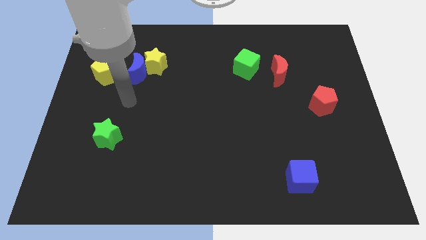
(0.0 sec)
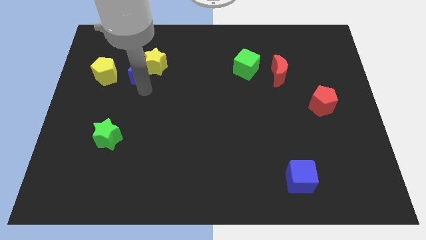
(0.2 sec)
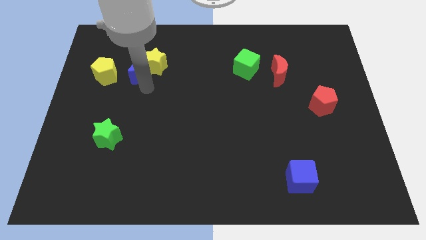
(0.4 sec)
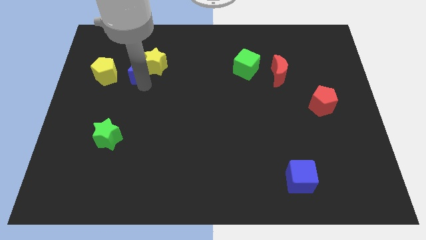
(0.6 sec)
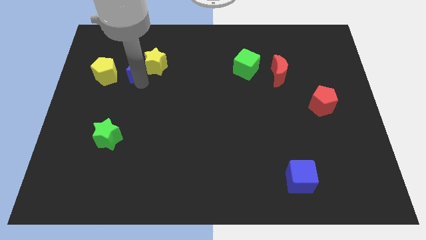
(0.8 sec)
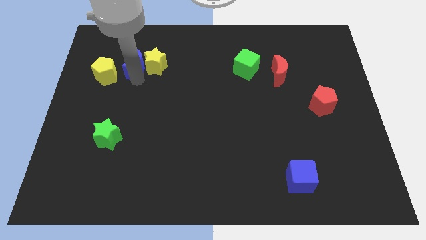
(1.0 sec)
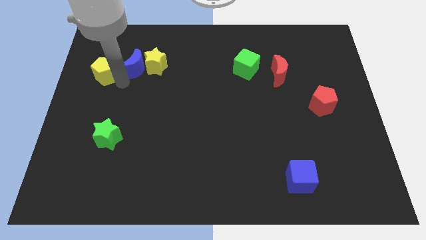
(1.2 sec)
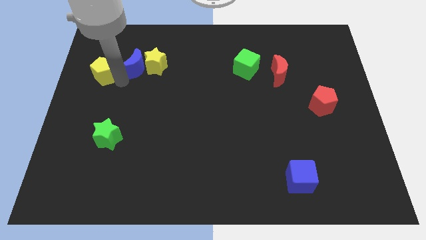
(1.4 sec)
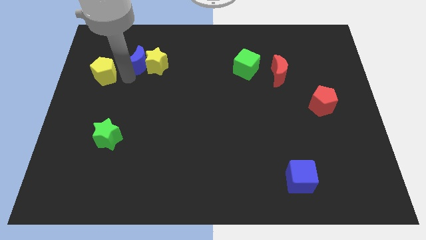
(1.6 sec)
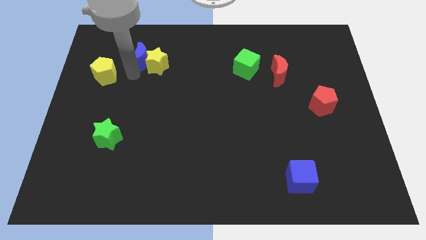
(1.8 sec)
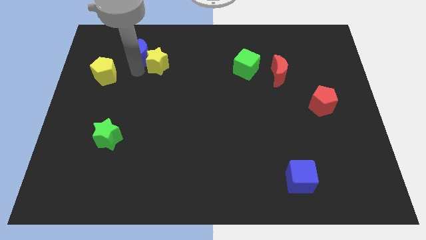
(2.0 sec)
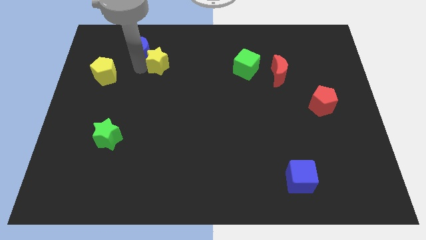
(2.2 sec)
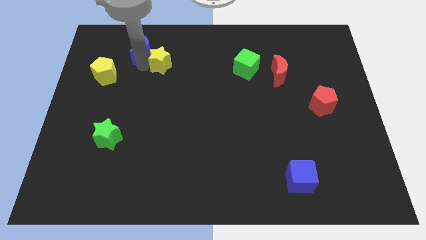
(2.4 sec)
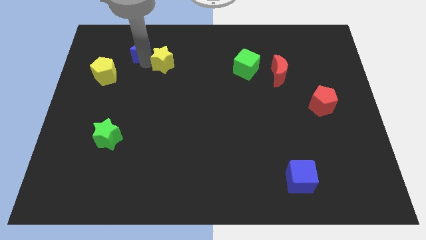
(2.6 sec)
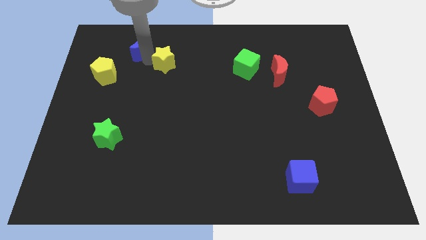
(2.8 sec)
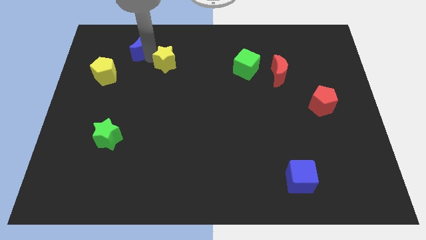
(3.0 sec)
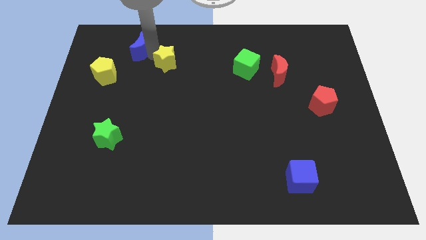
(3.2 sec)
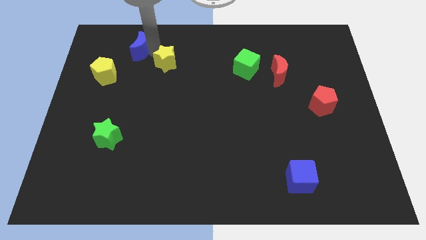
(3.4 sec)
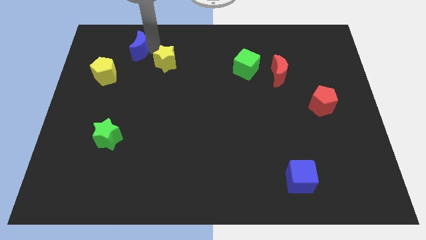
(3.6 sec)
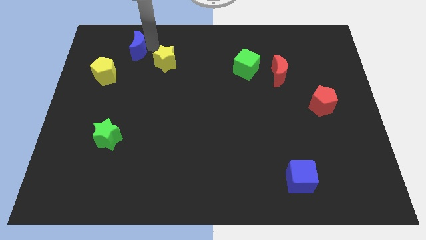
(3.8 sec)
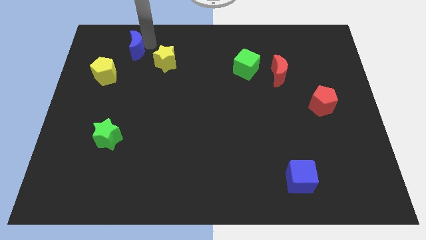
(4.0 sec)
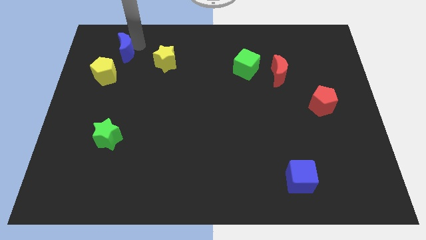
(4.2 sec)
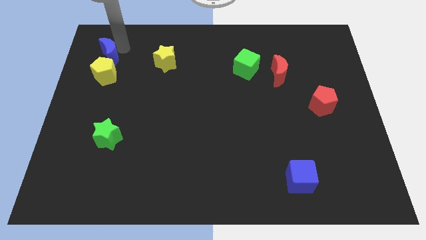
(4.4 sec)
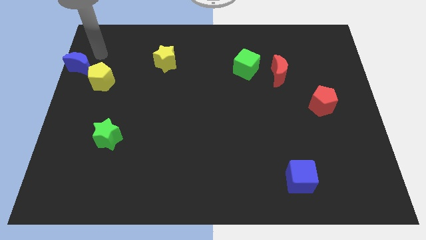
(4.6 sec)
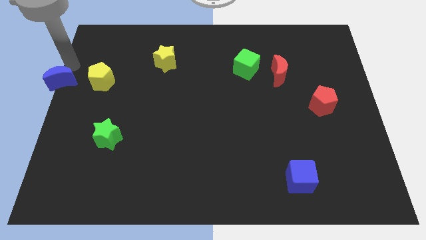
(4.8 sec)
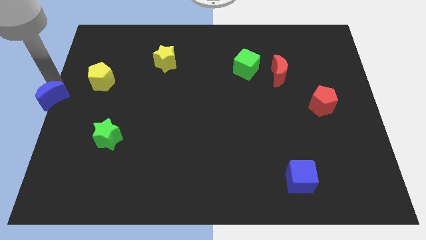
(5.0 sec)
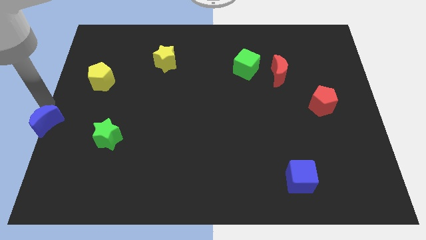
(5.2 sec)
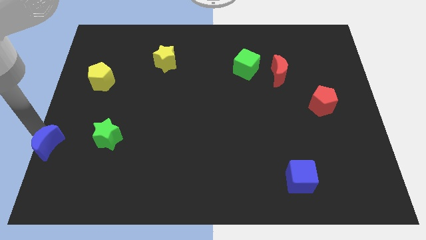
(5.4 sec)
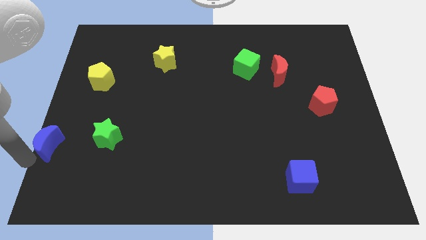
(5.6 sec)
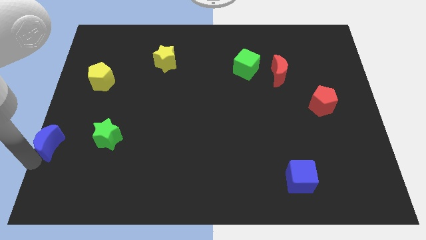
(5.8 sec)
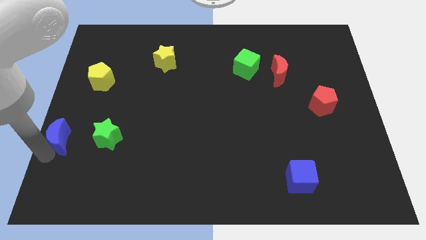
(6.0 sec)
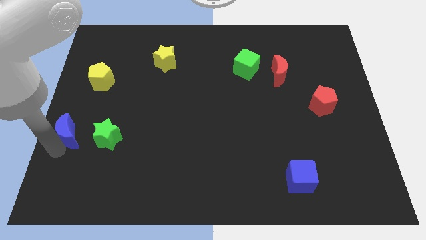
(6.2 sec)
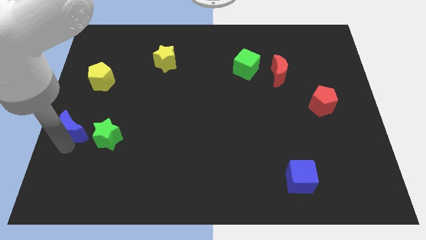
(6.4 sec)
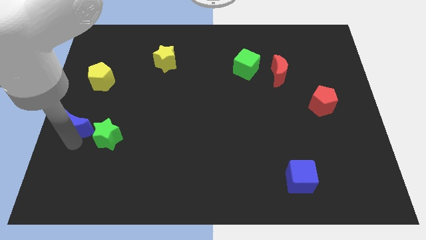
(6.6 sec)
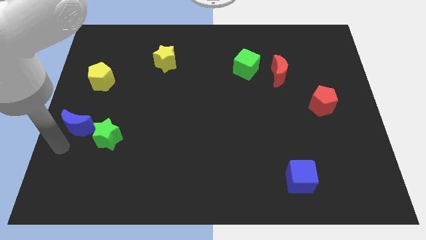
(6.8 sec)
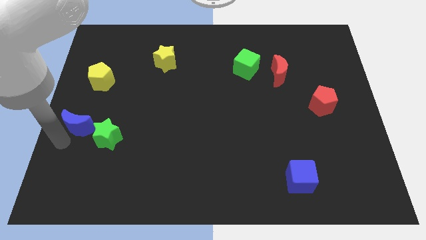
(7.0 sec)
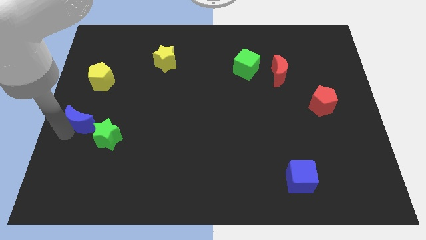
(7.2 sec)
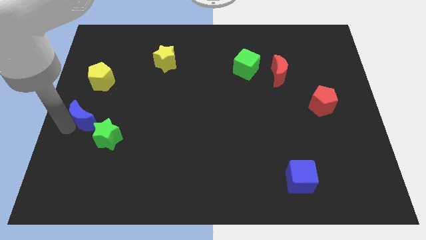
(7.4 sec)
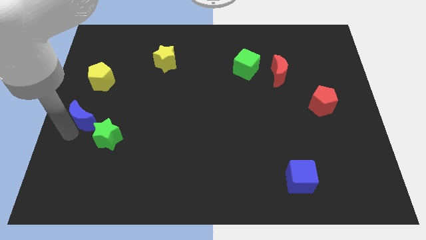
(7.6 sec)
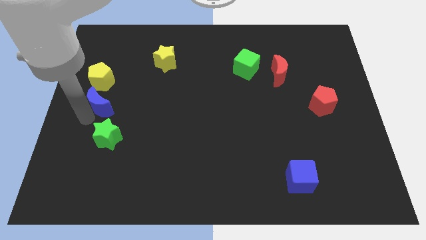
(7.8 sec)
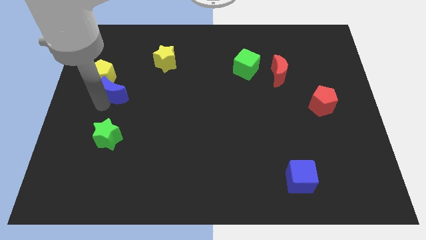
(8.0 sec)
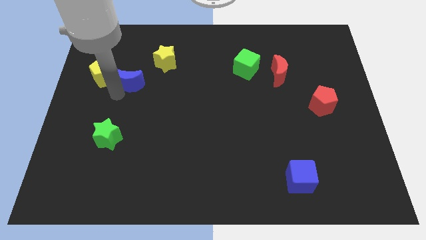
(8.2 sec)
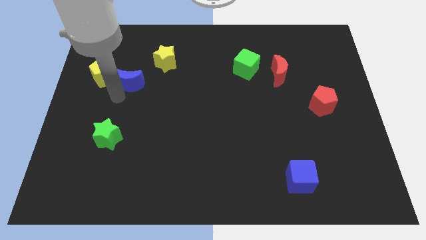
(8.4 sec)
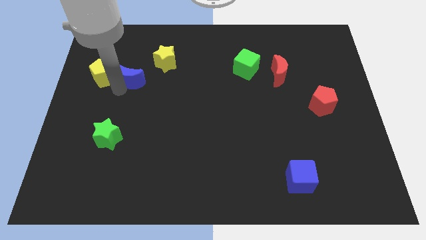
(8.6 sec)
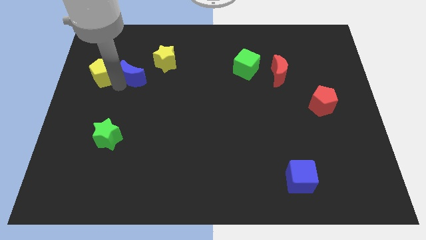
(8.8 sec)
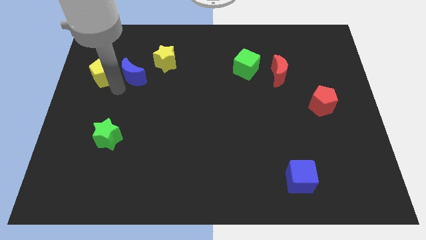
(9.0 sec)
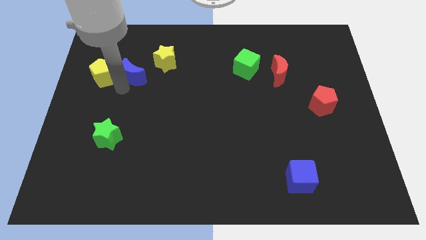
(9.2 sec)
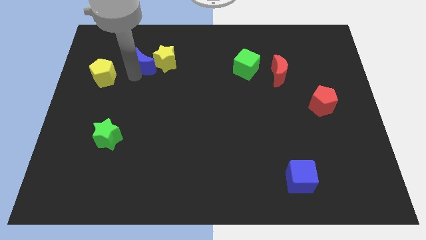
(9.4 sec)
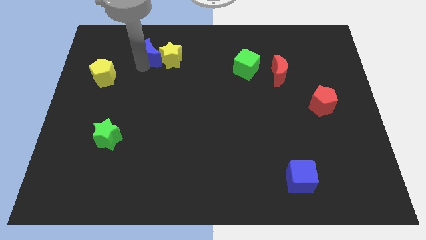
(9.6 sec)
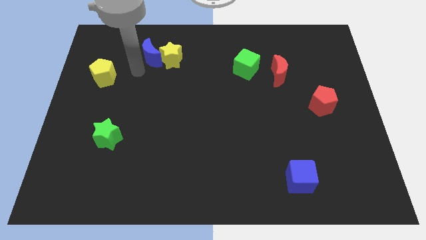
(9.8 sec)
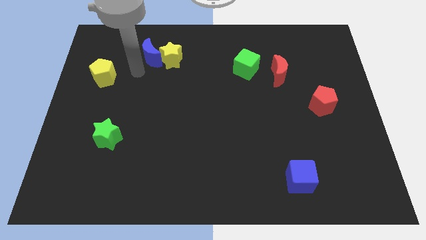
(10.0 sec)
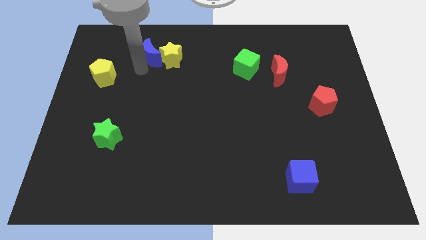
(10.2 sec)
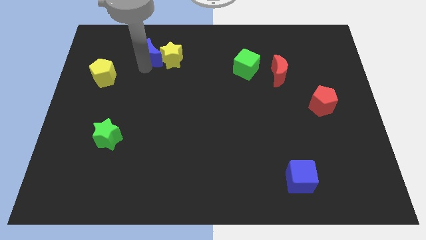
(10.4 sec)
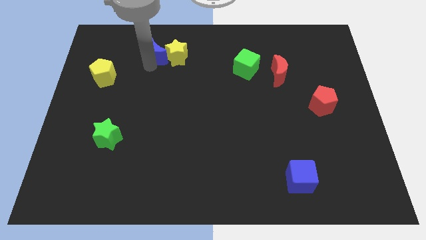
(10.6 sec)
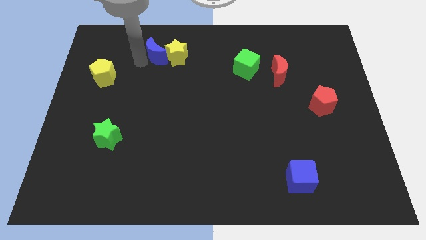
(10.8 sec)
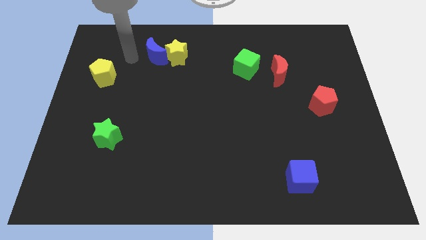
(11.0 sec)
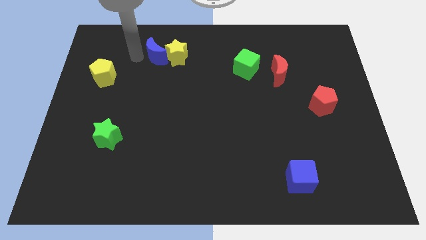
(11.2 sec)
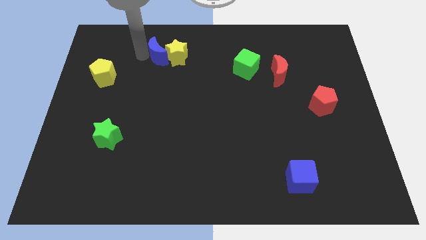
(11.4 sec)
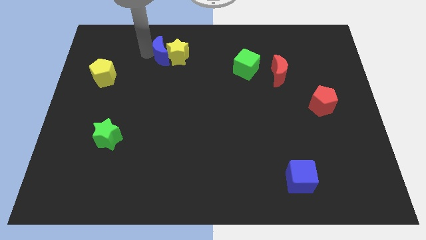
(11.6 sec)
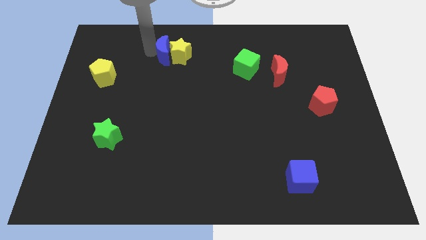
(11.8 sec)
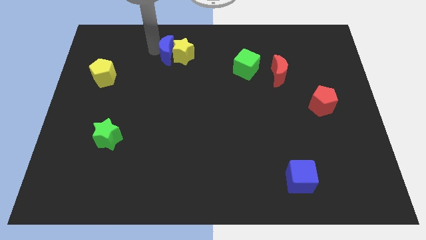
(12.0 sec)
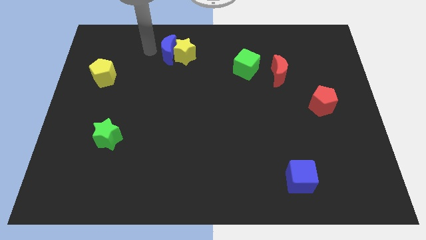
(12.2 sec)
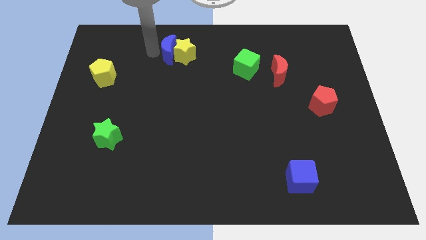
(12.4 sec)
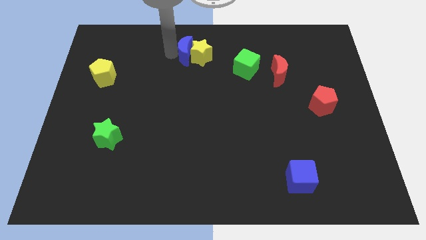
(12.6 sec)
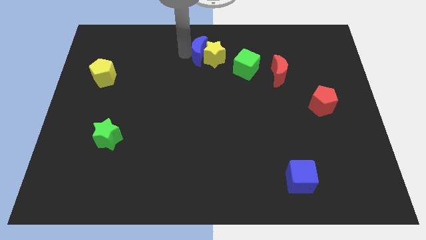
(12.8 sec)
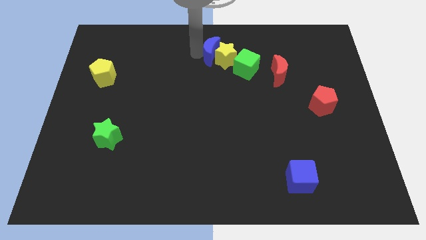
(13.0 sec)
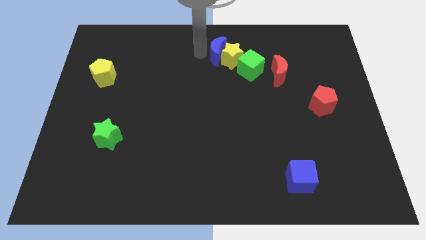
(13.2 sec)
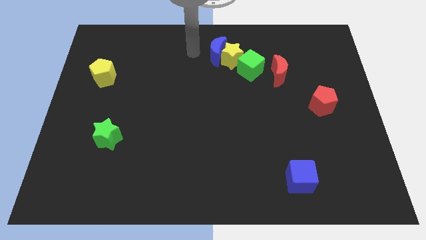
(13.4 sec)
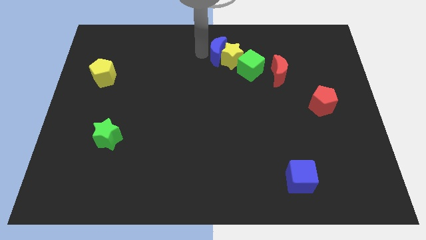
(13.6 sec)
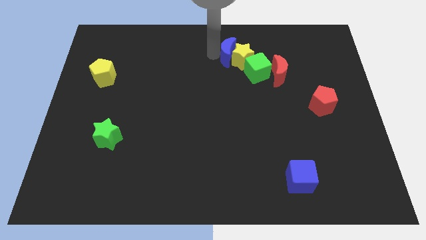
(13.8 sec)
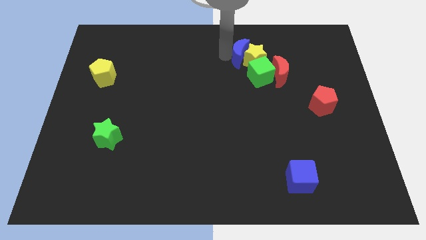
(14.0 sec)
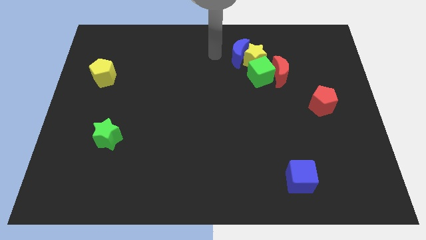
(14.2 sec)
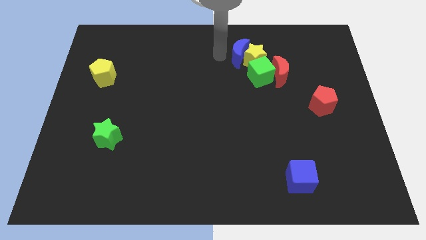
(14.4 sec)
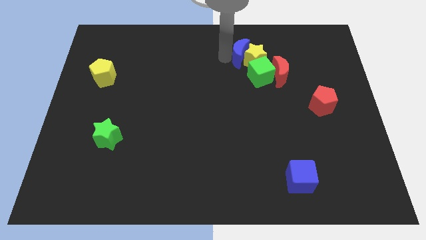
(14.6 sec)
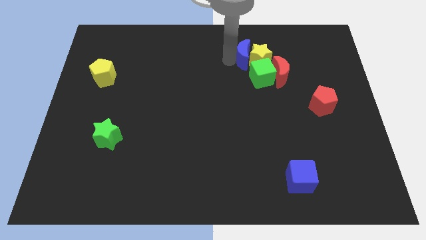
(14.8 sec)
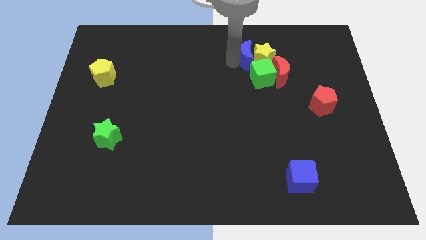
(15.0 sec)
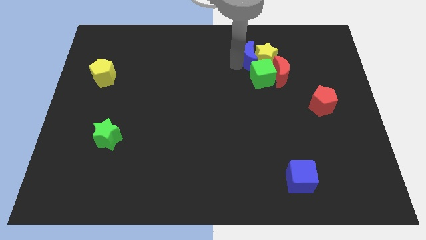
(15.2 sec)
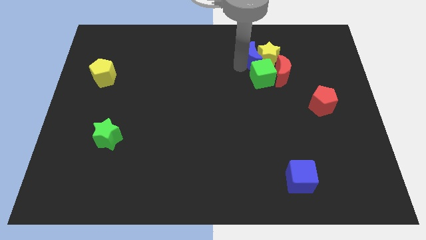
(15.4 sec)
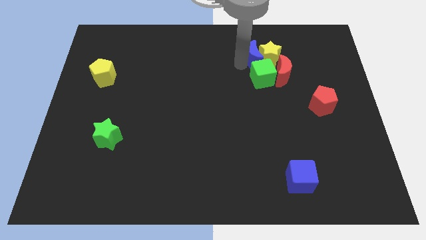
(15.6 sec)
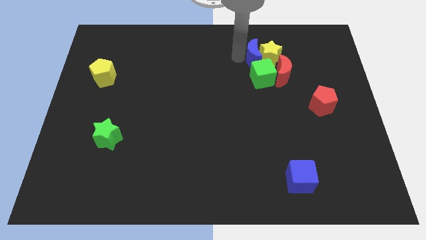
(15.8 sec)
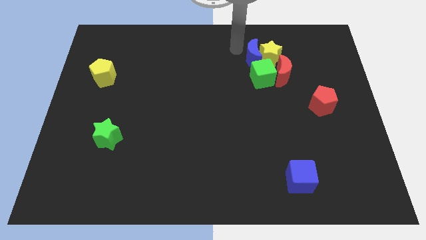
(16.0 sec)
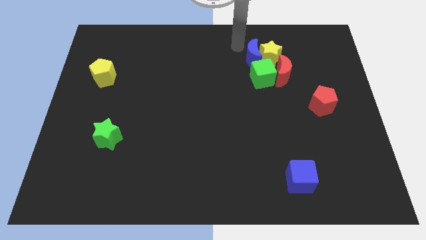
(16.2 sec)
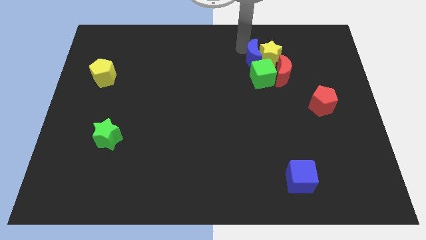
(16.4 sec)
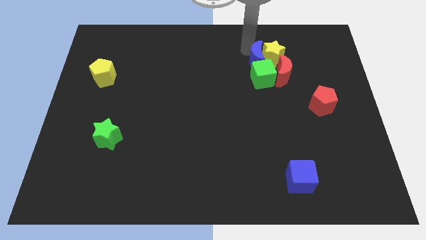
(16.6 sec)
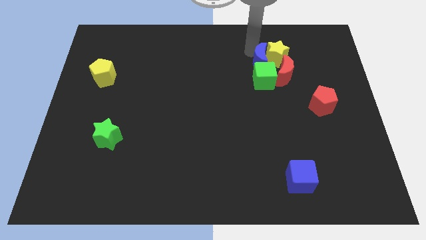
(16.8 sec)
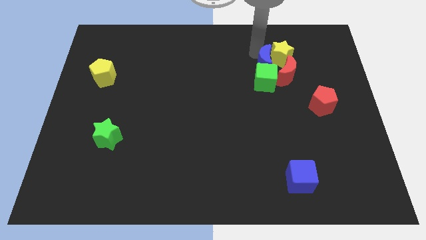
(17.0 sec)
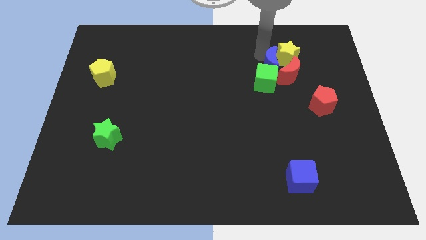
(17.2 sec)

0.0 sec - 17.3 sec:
slide the blue moon towards the red moon
